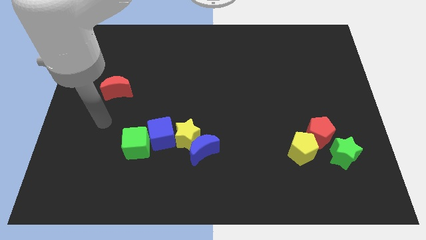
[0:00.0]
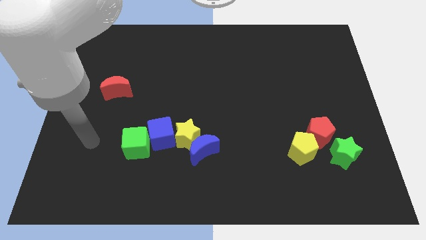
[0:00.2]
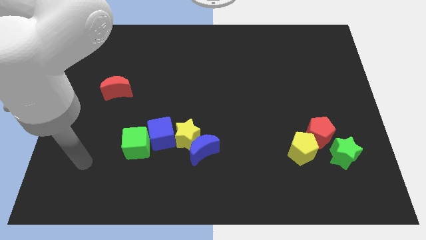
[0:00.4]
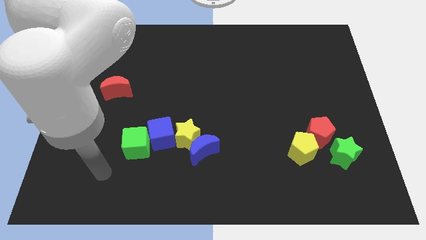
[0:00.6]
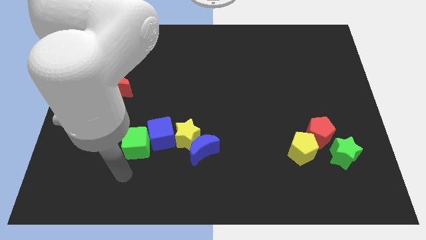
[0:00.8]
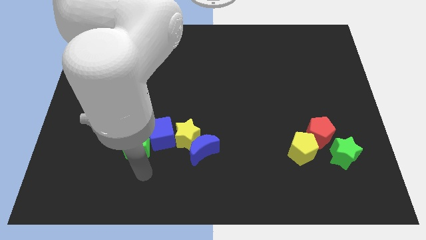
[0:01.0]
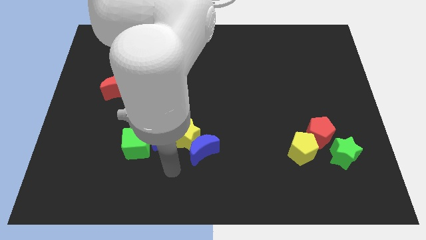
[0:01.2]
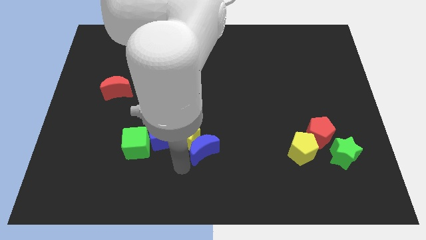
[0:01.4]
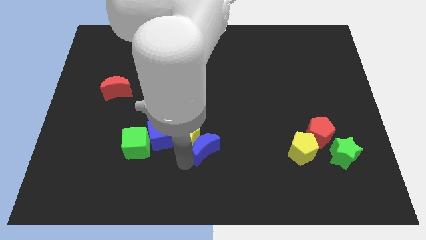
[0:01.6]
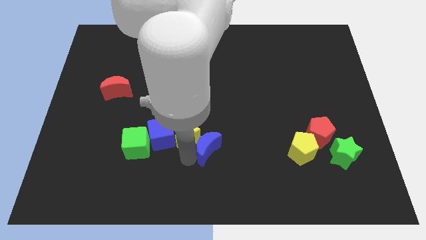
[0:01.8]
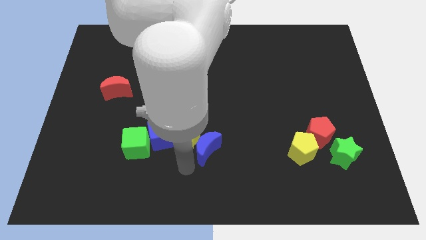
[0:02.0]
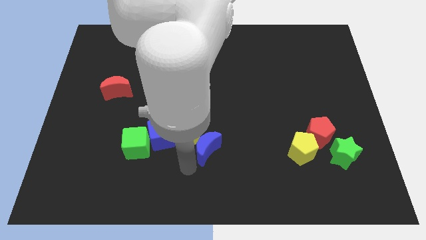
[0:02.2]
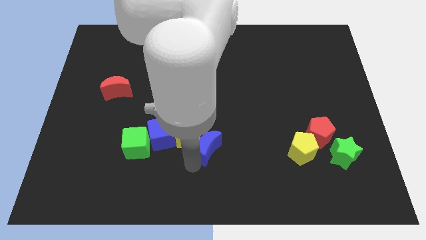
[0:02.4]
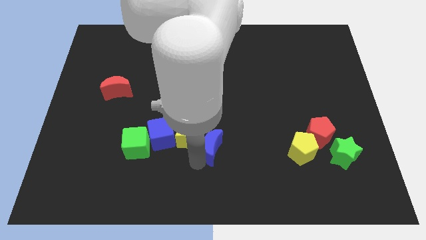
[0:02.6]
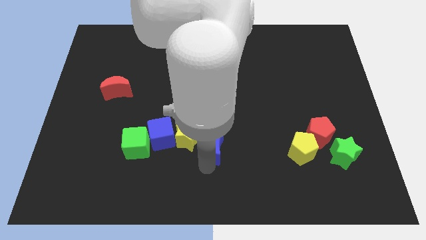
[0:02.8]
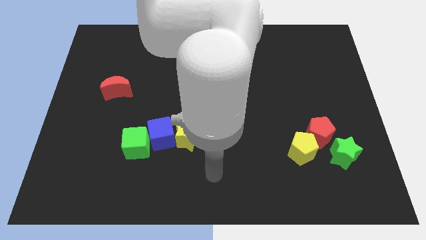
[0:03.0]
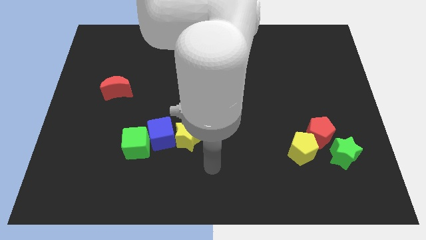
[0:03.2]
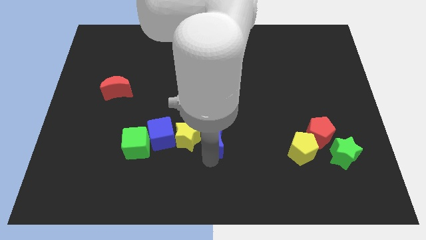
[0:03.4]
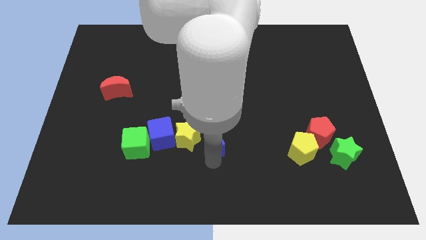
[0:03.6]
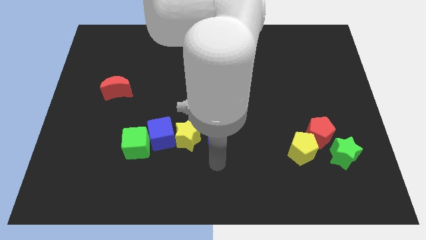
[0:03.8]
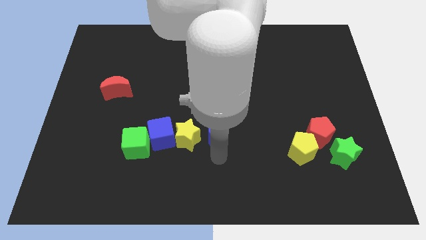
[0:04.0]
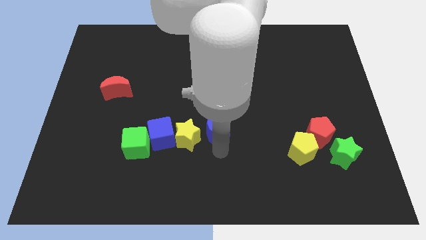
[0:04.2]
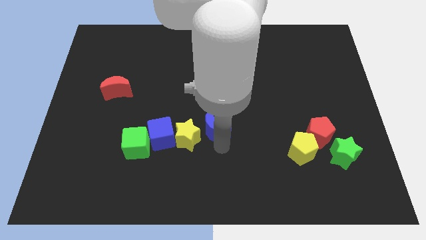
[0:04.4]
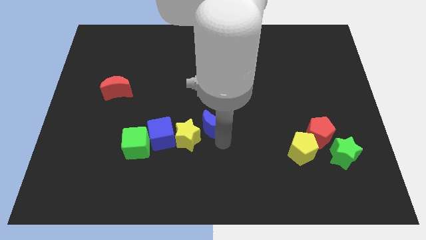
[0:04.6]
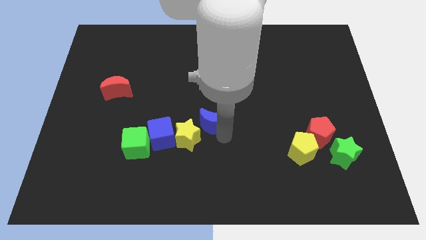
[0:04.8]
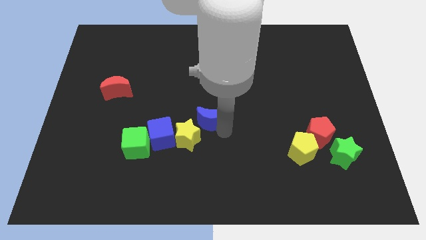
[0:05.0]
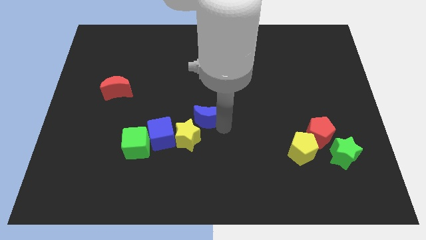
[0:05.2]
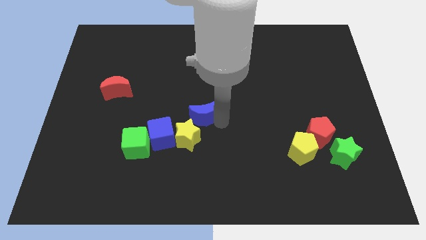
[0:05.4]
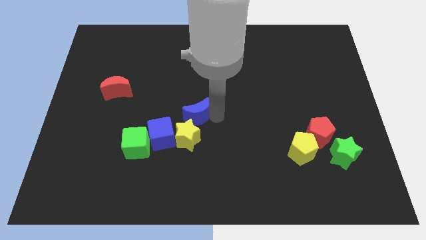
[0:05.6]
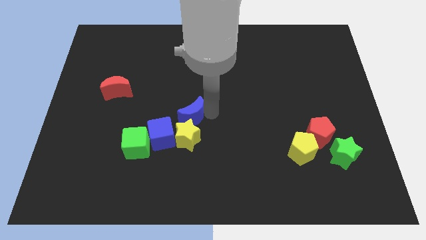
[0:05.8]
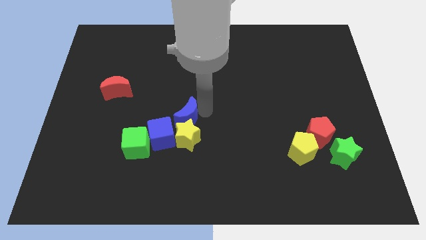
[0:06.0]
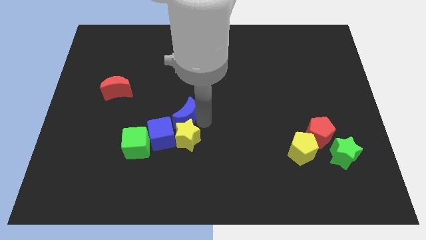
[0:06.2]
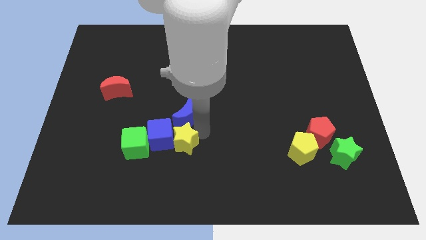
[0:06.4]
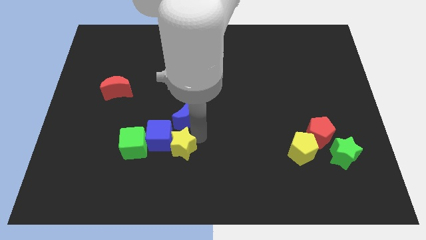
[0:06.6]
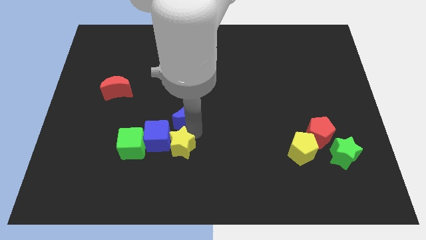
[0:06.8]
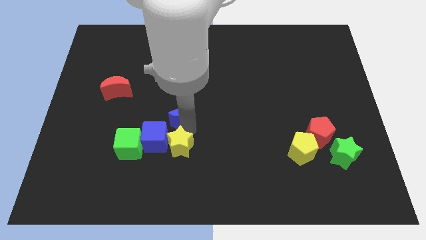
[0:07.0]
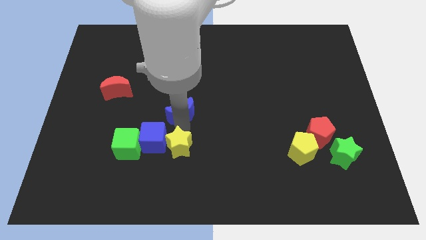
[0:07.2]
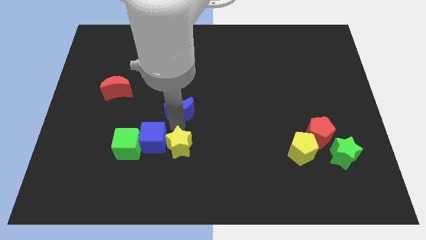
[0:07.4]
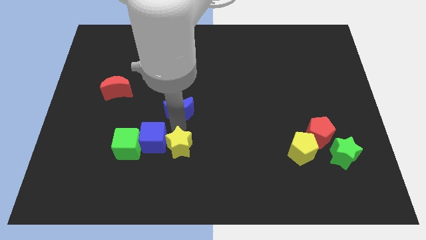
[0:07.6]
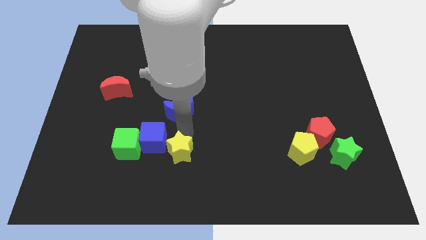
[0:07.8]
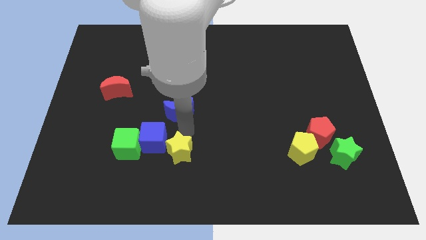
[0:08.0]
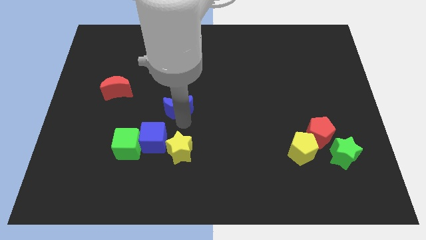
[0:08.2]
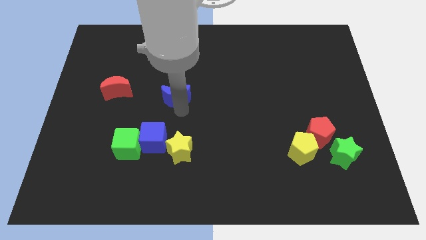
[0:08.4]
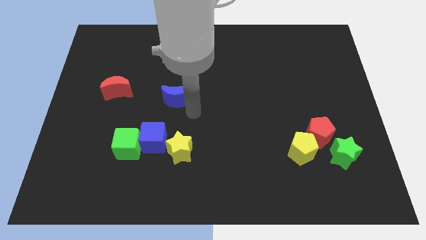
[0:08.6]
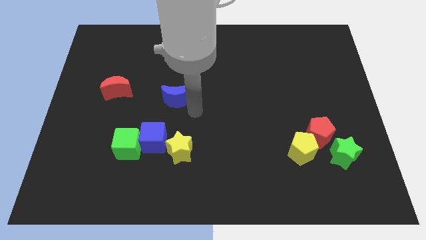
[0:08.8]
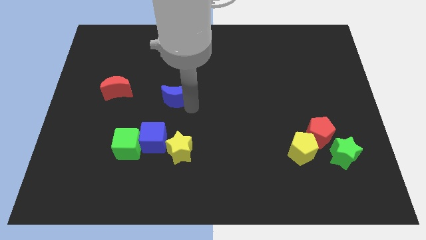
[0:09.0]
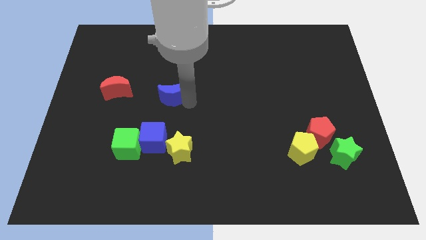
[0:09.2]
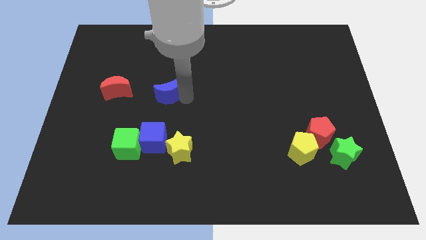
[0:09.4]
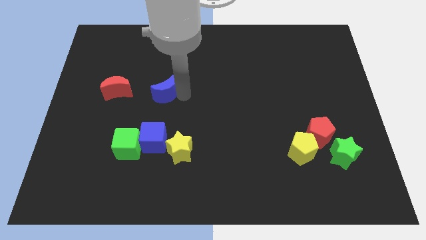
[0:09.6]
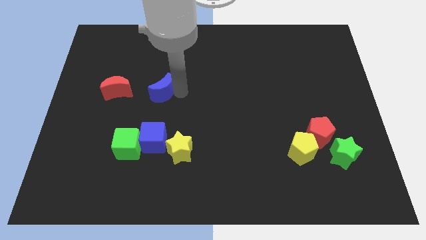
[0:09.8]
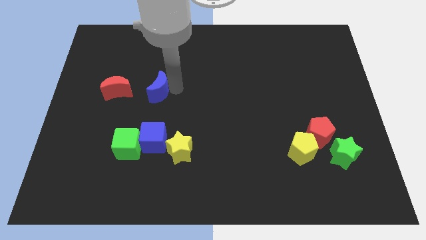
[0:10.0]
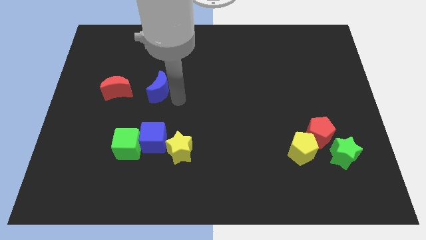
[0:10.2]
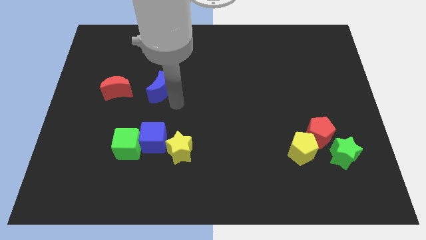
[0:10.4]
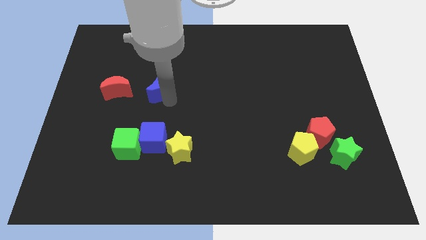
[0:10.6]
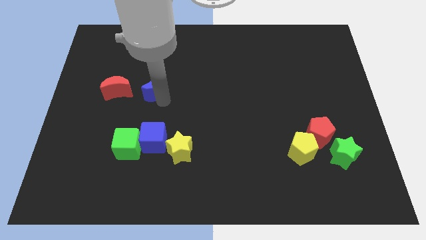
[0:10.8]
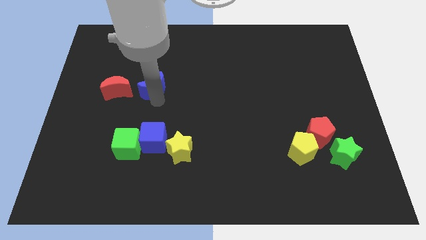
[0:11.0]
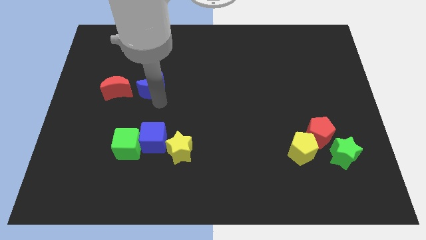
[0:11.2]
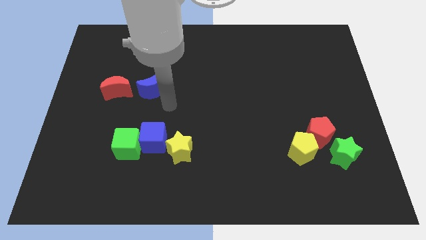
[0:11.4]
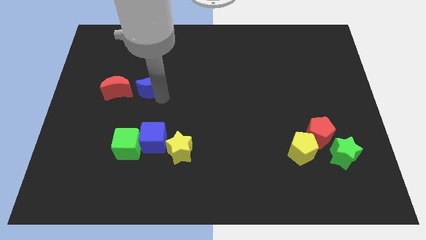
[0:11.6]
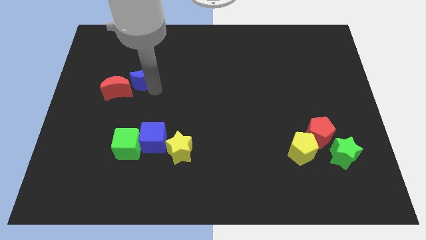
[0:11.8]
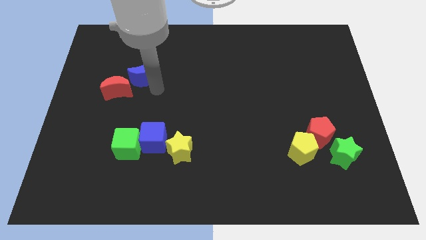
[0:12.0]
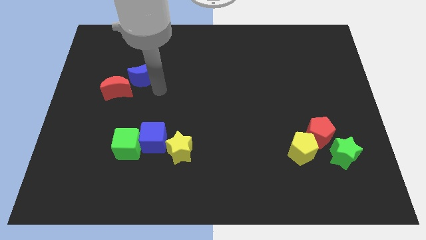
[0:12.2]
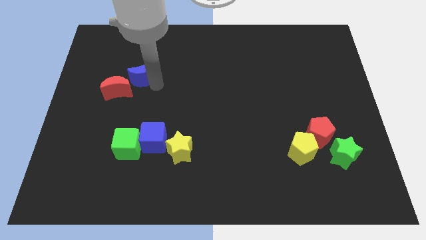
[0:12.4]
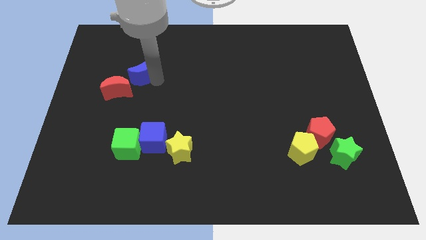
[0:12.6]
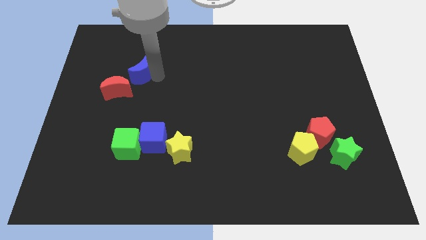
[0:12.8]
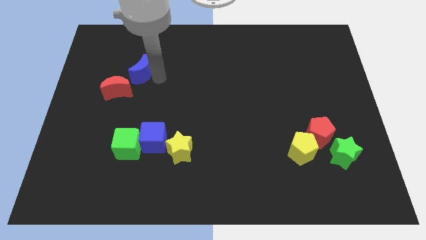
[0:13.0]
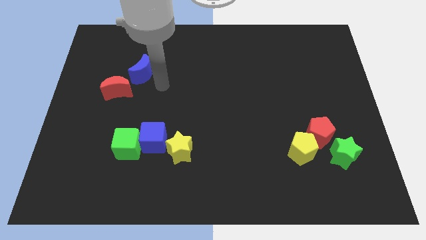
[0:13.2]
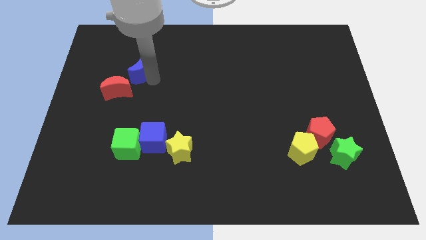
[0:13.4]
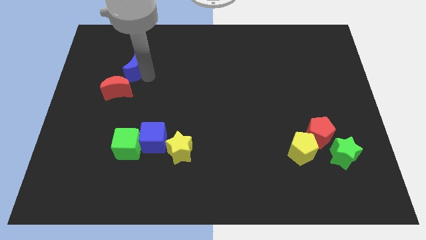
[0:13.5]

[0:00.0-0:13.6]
move the blue moon above the red moon

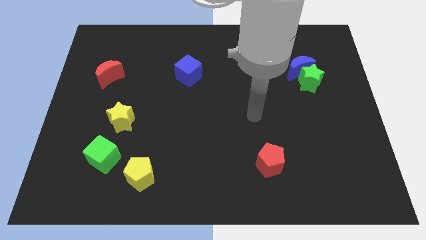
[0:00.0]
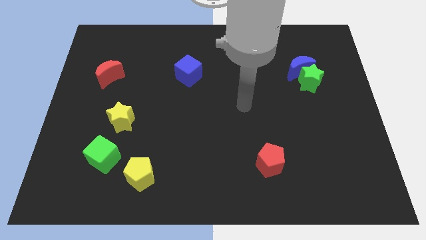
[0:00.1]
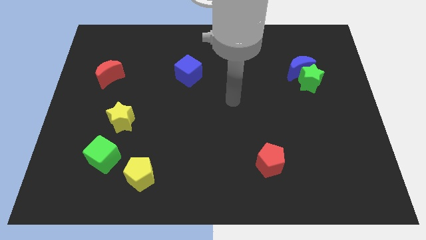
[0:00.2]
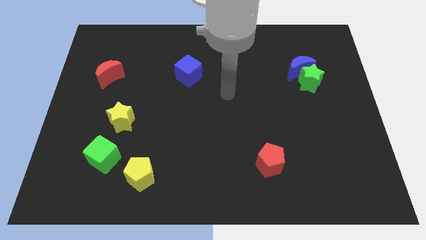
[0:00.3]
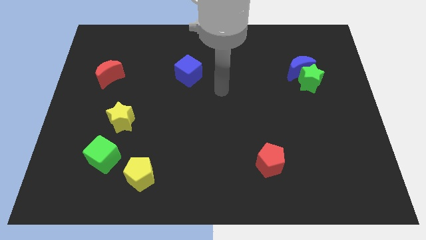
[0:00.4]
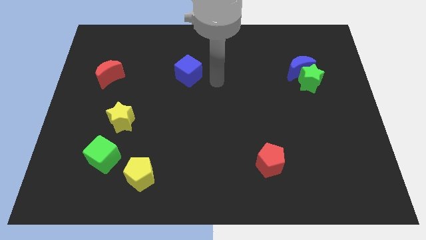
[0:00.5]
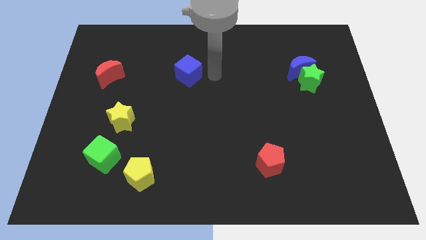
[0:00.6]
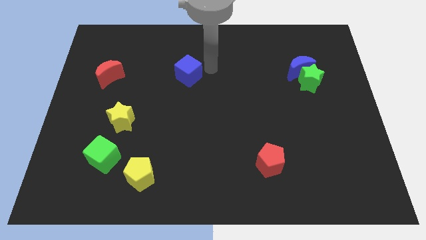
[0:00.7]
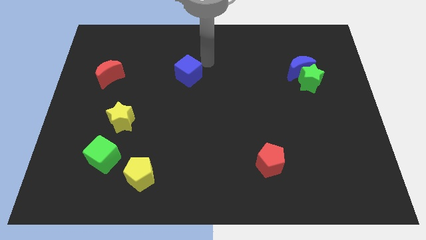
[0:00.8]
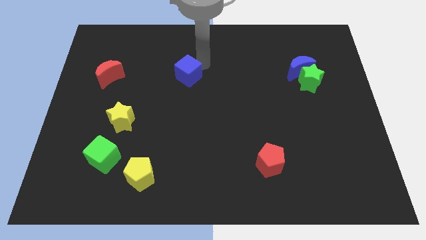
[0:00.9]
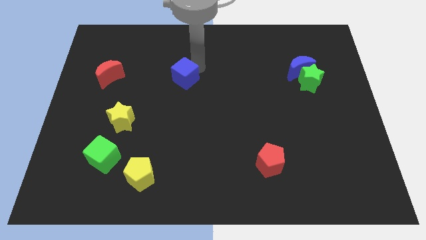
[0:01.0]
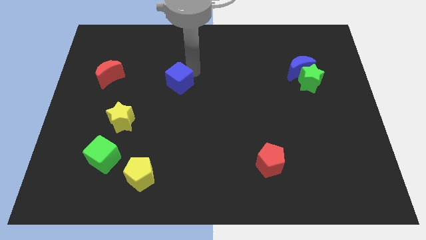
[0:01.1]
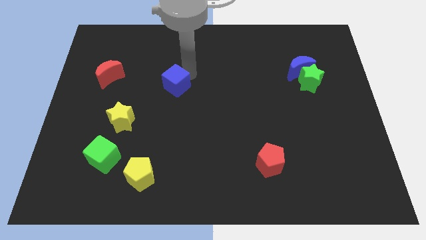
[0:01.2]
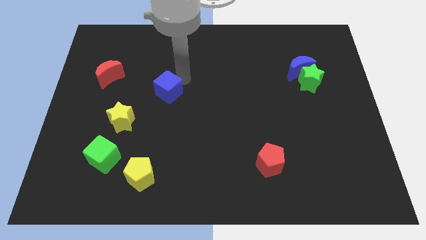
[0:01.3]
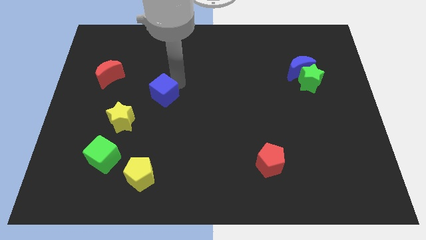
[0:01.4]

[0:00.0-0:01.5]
put the blue cube to the top right side of the yellow star
